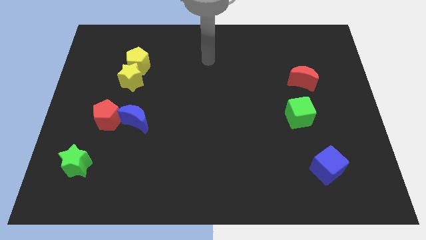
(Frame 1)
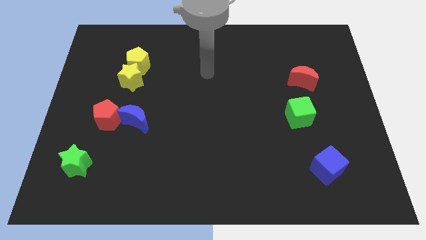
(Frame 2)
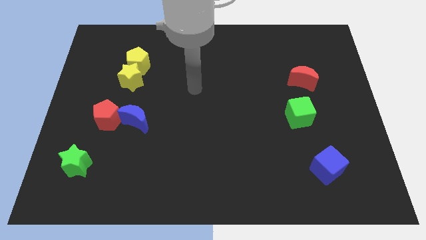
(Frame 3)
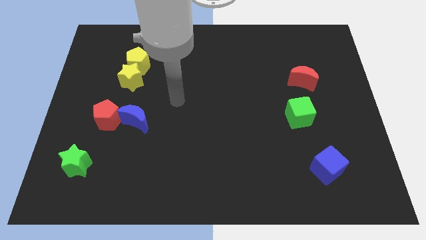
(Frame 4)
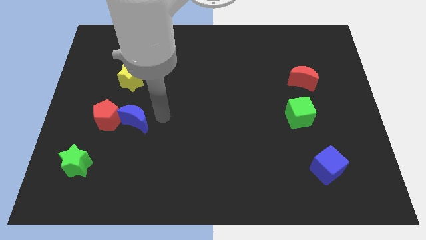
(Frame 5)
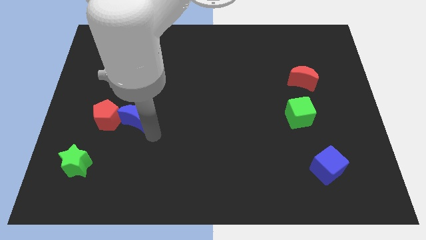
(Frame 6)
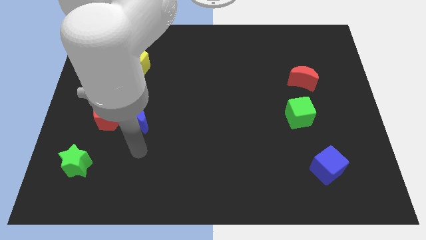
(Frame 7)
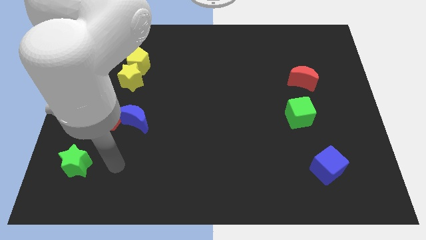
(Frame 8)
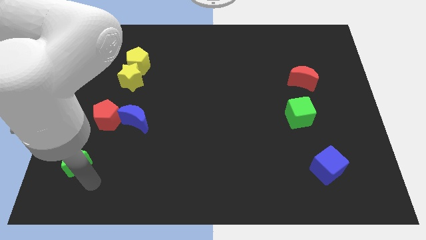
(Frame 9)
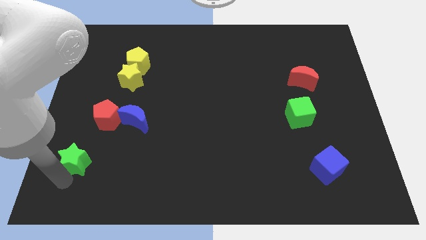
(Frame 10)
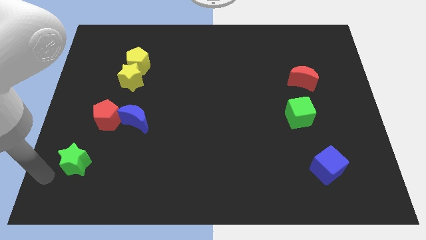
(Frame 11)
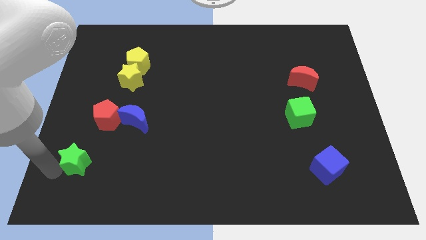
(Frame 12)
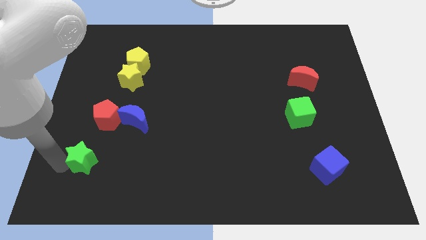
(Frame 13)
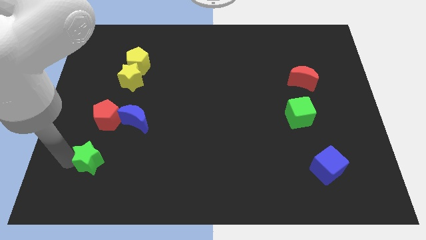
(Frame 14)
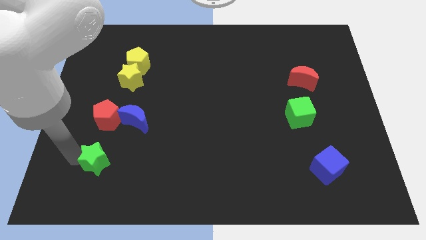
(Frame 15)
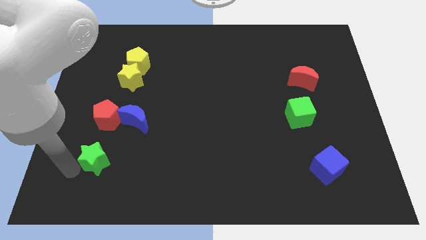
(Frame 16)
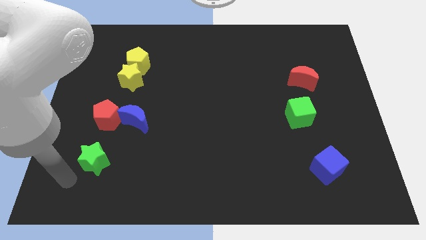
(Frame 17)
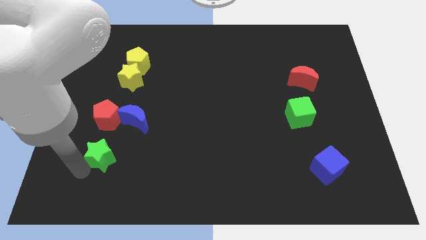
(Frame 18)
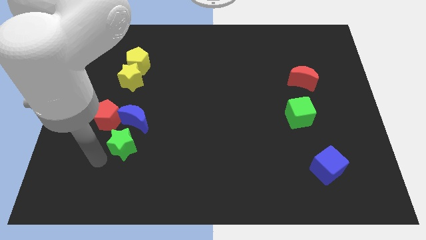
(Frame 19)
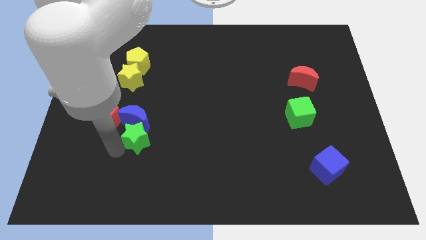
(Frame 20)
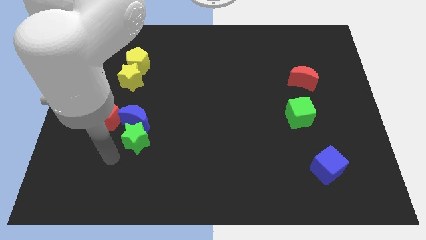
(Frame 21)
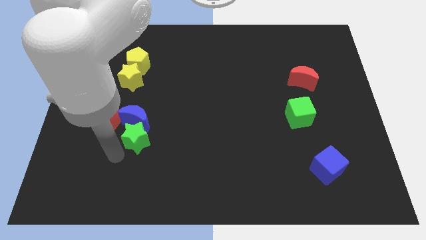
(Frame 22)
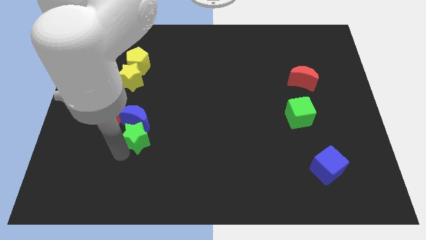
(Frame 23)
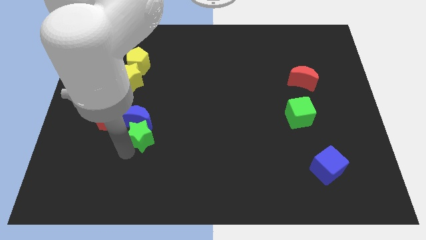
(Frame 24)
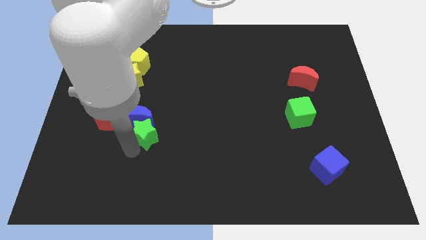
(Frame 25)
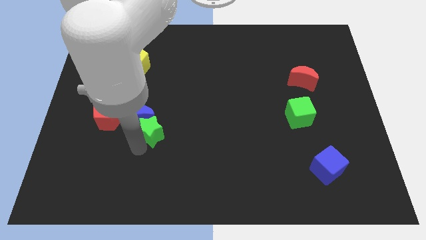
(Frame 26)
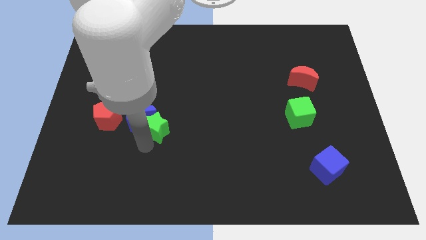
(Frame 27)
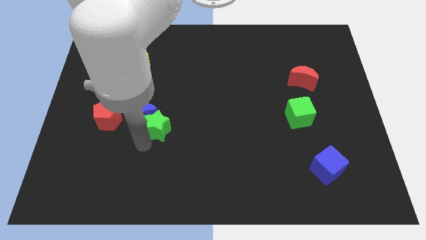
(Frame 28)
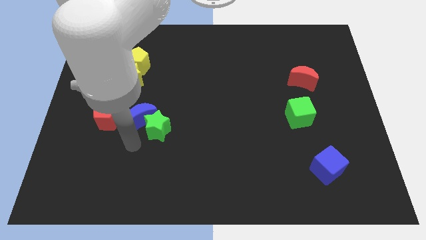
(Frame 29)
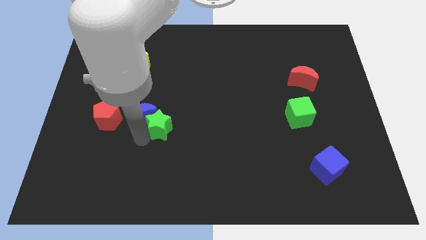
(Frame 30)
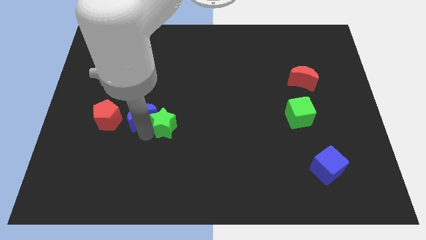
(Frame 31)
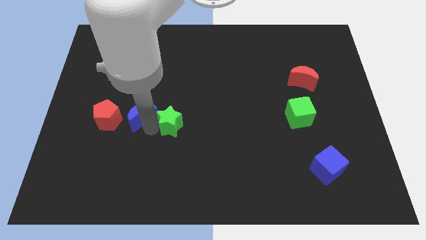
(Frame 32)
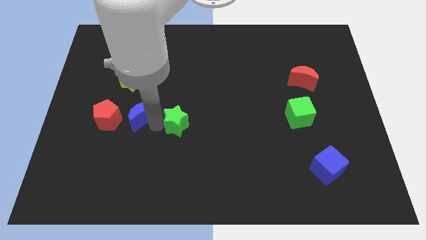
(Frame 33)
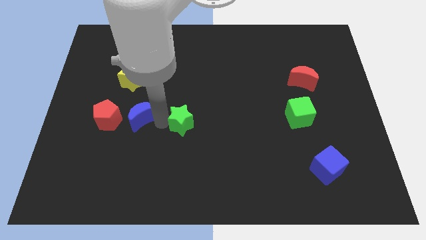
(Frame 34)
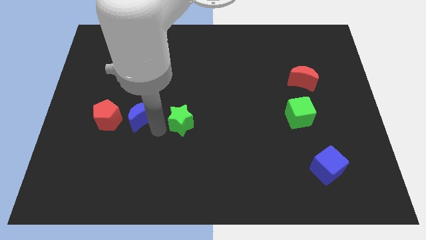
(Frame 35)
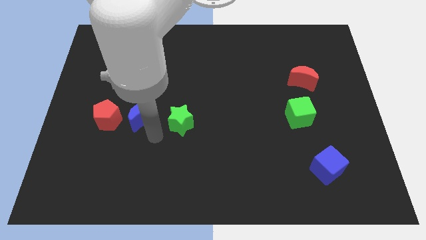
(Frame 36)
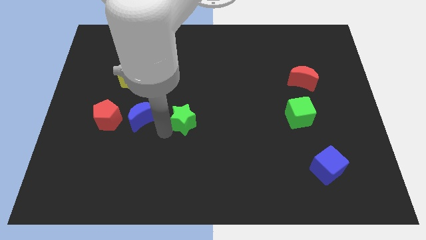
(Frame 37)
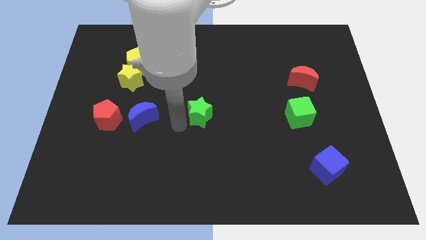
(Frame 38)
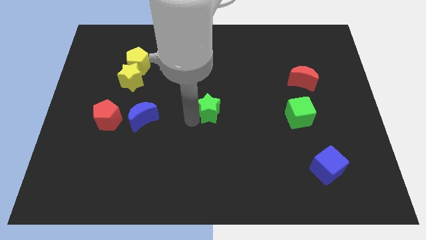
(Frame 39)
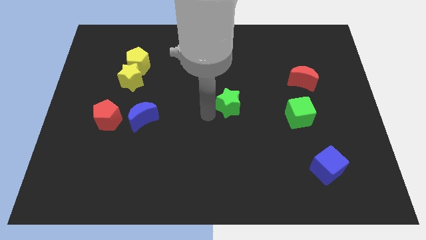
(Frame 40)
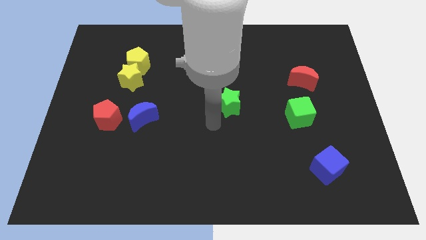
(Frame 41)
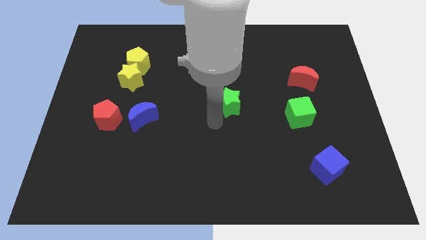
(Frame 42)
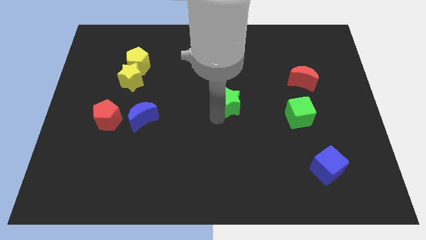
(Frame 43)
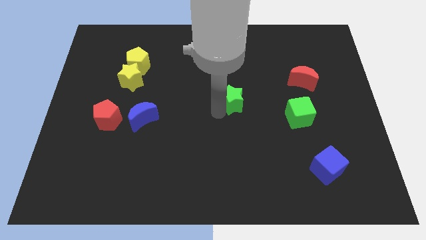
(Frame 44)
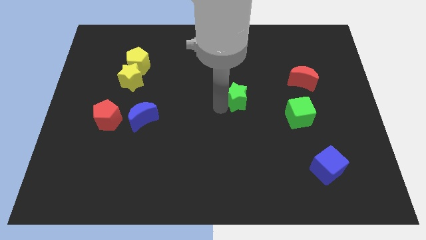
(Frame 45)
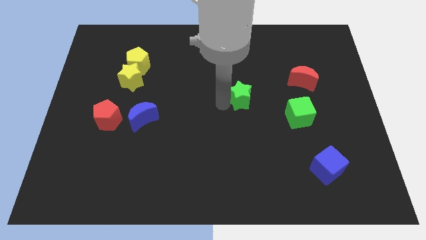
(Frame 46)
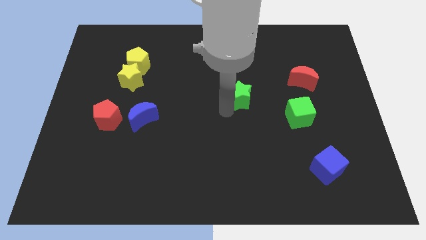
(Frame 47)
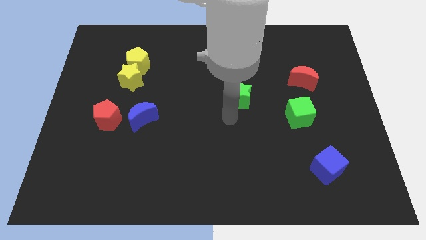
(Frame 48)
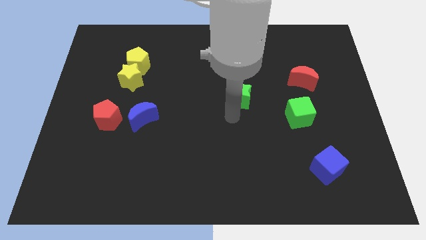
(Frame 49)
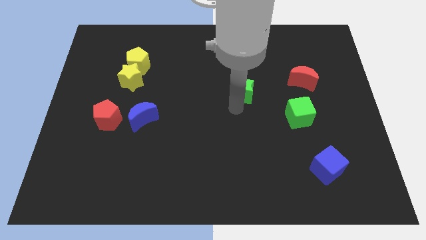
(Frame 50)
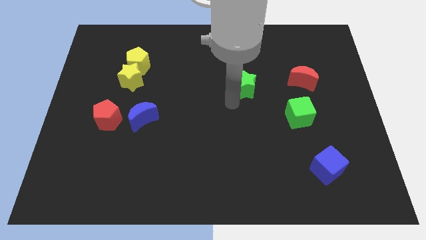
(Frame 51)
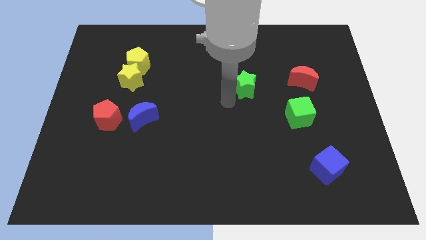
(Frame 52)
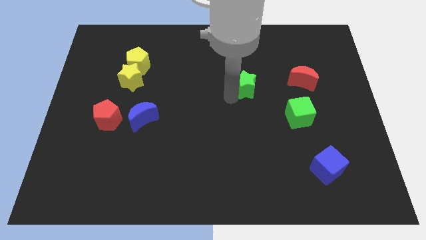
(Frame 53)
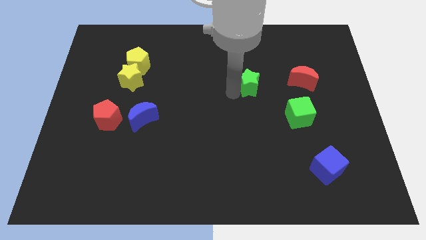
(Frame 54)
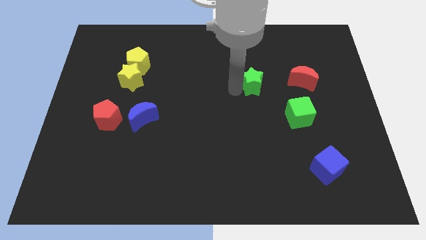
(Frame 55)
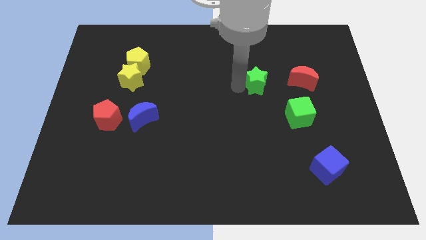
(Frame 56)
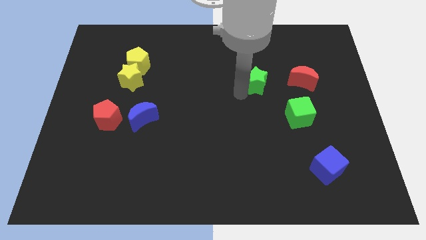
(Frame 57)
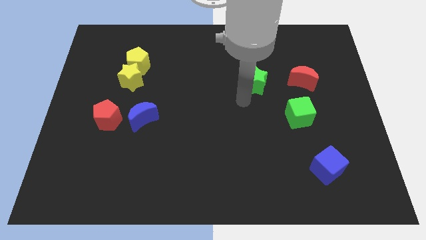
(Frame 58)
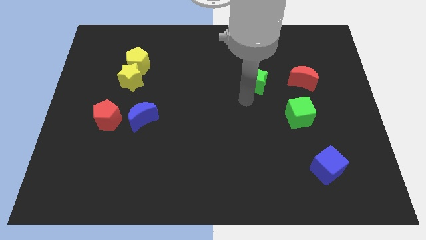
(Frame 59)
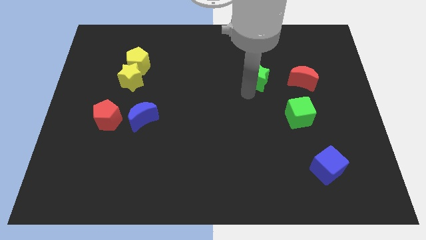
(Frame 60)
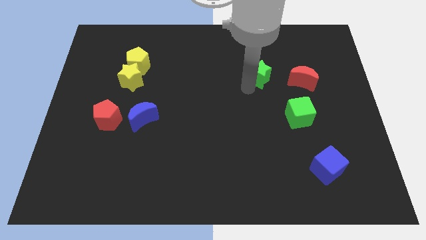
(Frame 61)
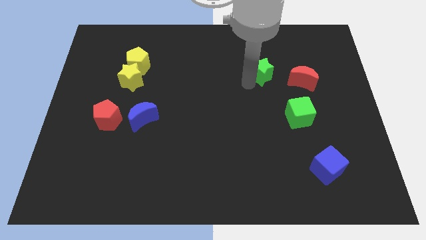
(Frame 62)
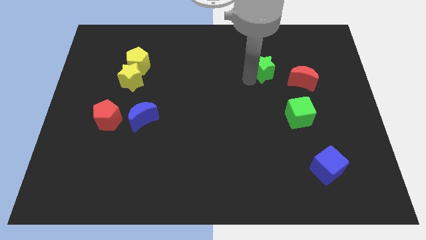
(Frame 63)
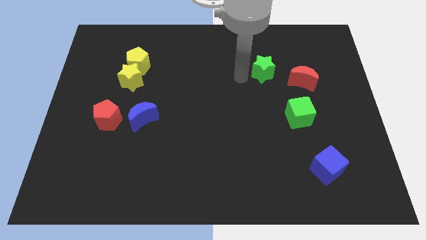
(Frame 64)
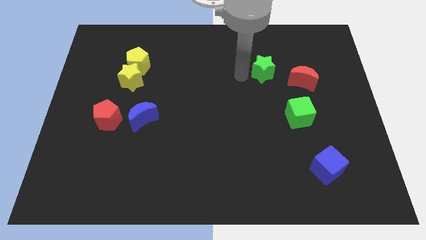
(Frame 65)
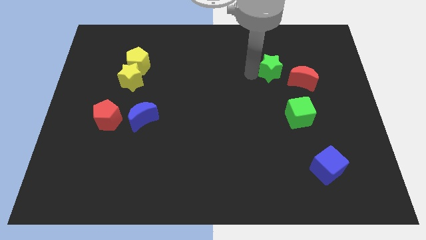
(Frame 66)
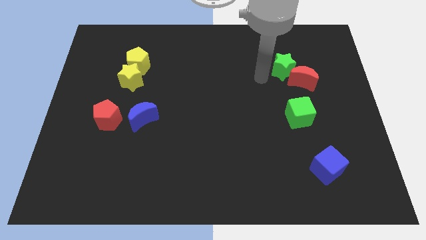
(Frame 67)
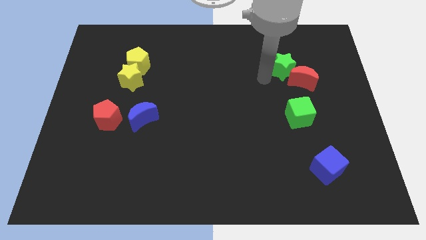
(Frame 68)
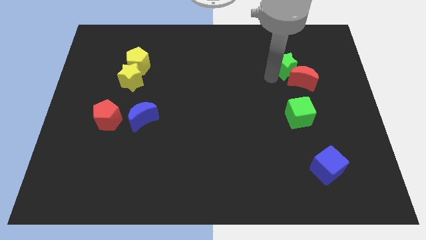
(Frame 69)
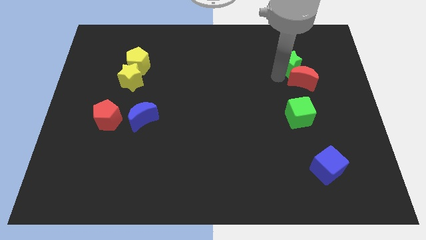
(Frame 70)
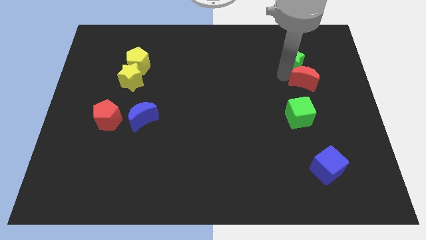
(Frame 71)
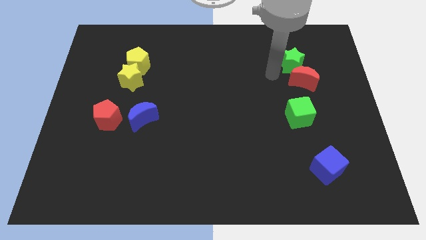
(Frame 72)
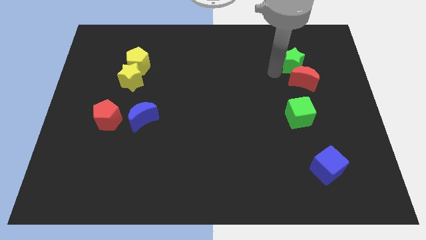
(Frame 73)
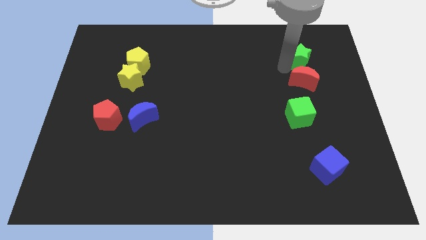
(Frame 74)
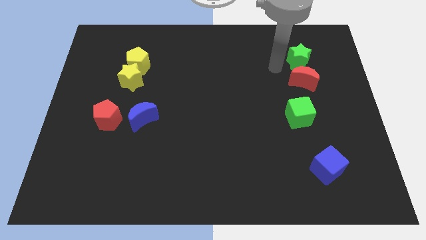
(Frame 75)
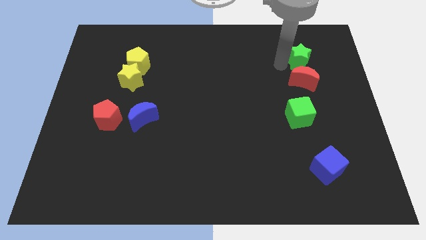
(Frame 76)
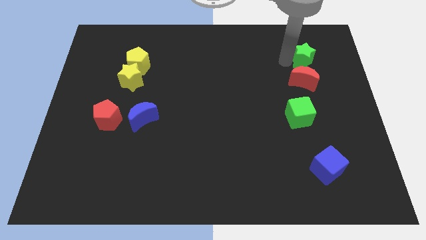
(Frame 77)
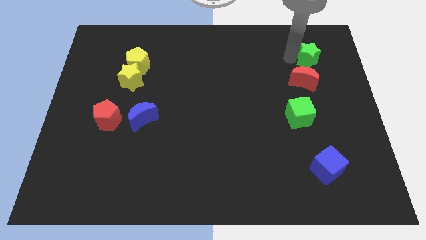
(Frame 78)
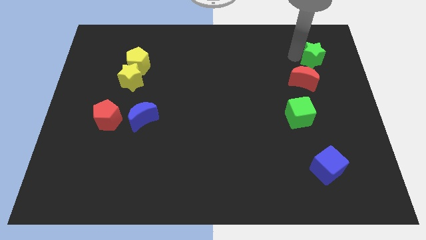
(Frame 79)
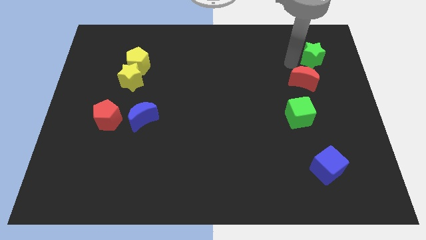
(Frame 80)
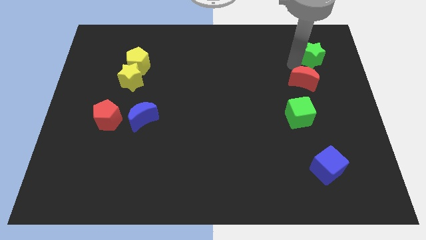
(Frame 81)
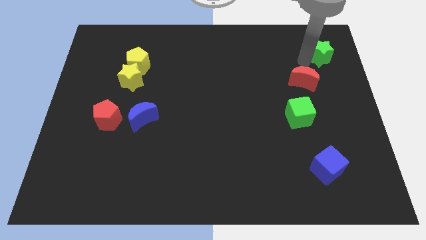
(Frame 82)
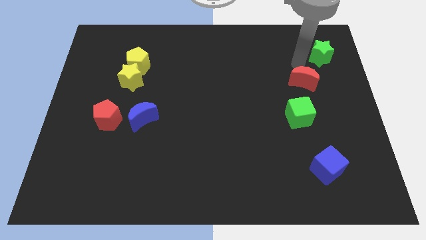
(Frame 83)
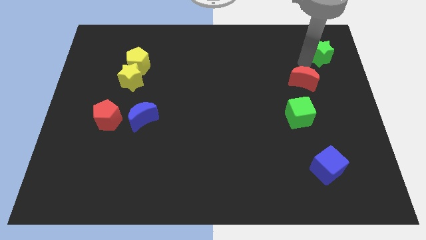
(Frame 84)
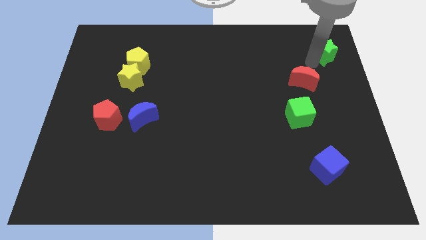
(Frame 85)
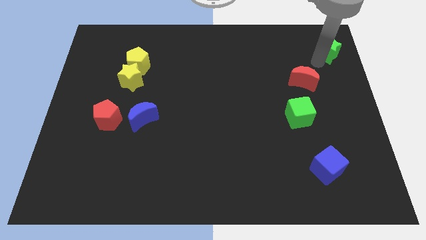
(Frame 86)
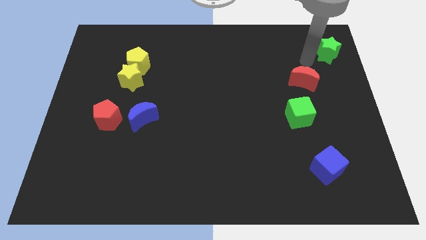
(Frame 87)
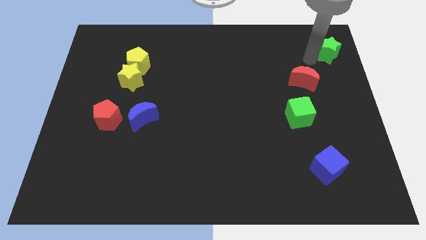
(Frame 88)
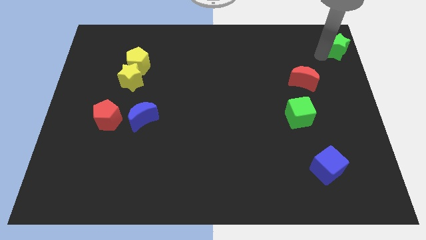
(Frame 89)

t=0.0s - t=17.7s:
push the green star to the top right of the board
